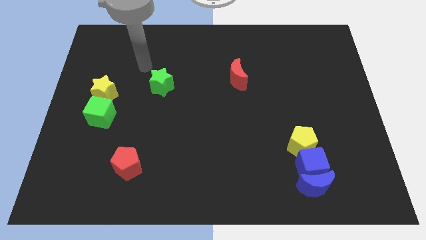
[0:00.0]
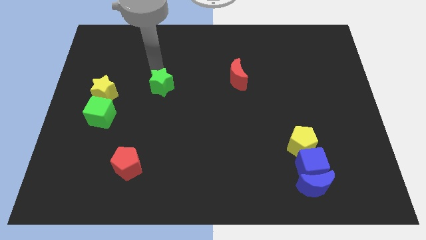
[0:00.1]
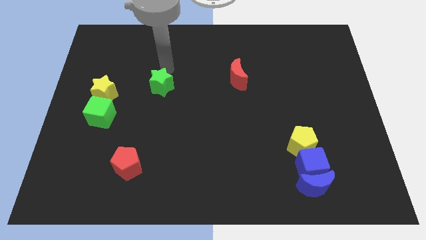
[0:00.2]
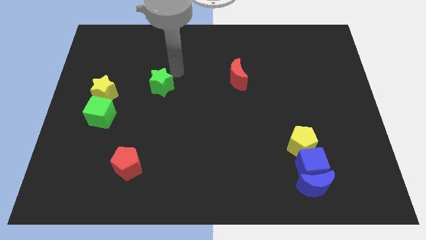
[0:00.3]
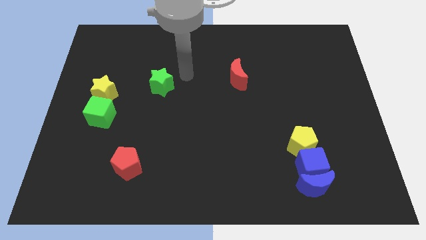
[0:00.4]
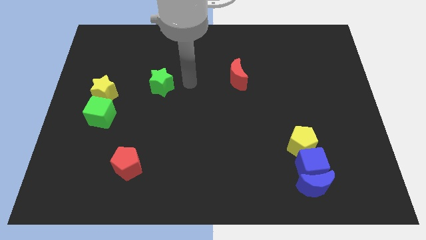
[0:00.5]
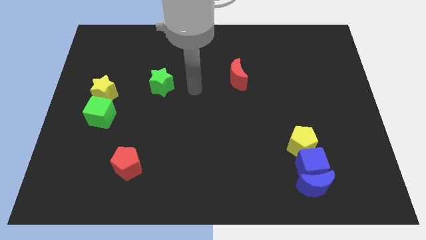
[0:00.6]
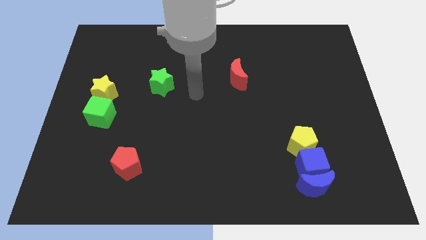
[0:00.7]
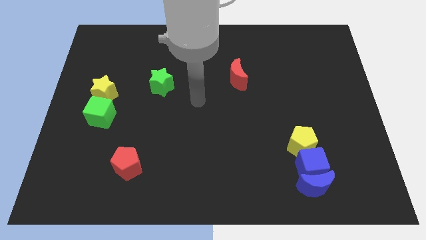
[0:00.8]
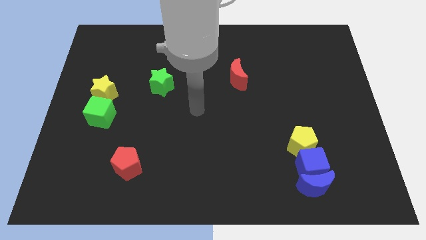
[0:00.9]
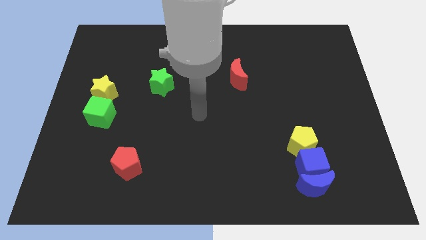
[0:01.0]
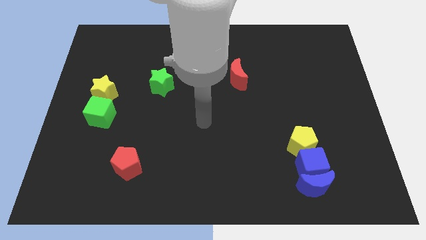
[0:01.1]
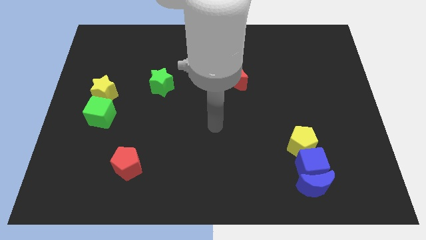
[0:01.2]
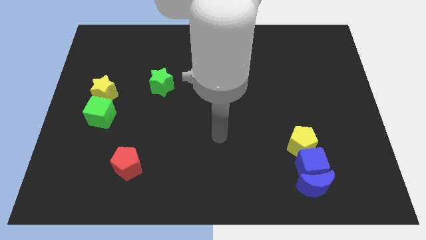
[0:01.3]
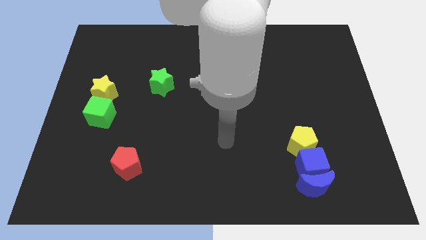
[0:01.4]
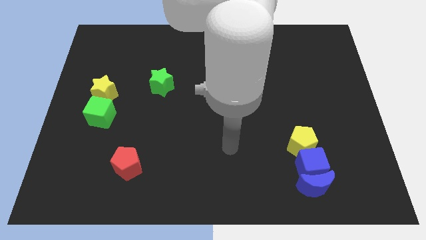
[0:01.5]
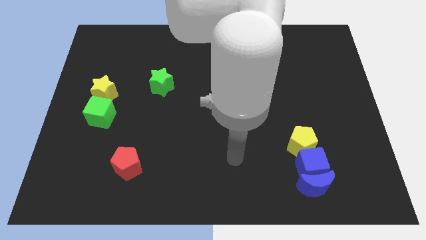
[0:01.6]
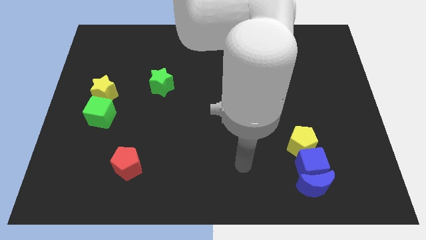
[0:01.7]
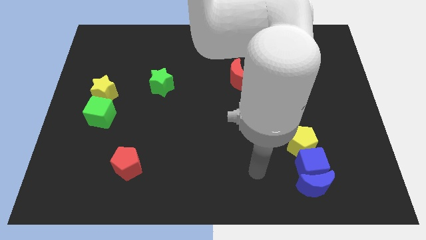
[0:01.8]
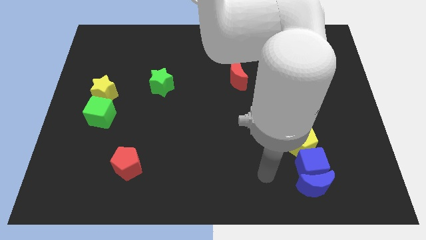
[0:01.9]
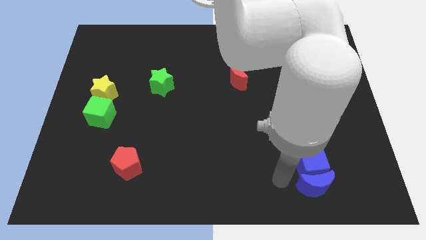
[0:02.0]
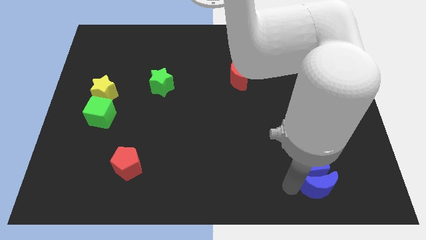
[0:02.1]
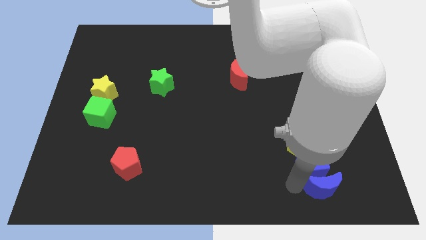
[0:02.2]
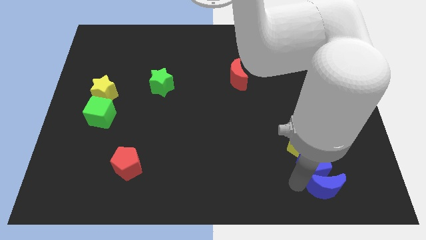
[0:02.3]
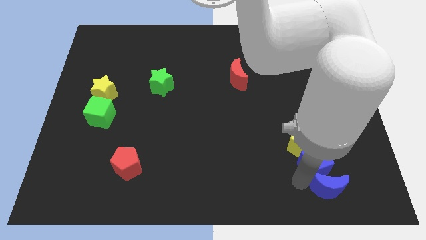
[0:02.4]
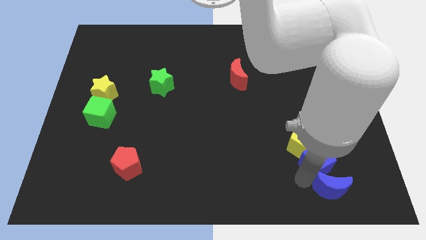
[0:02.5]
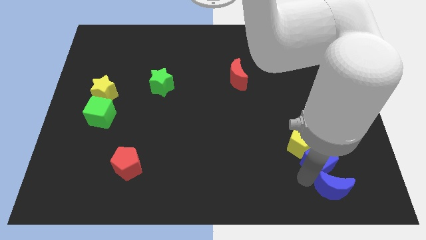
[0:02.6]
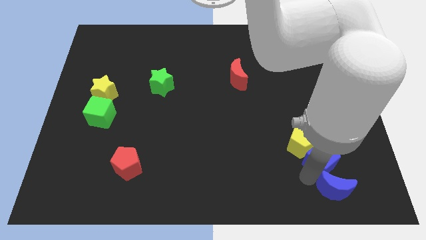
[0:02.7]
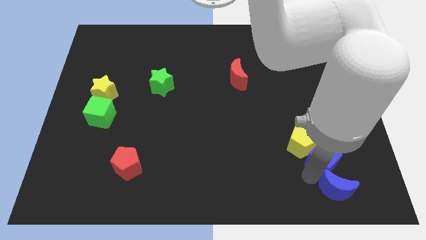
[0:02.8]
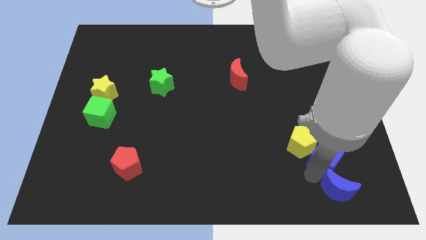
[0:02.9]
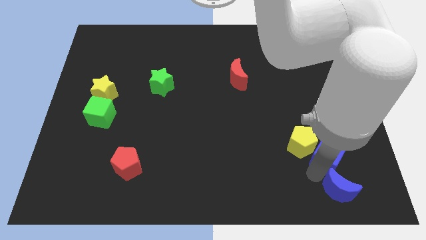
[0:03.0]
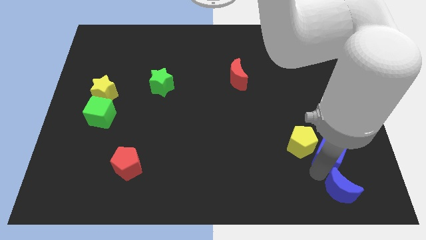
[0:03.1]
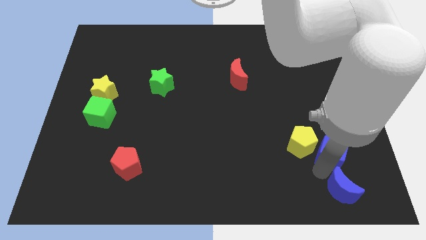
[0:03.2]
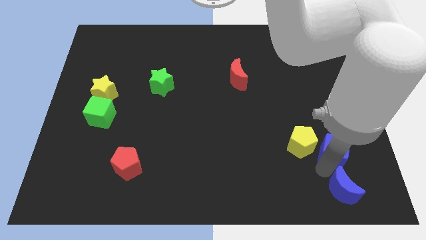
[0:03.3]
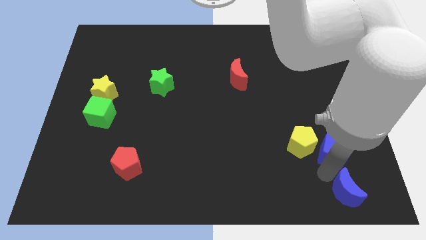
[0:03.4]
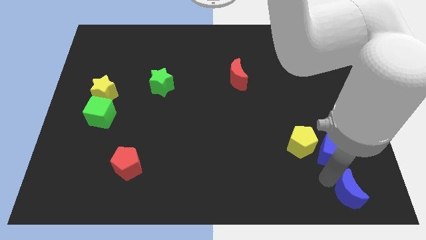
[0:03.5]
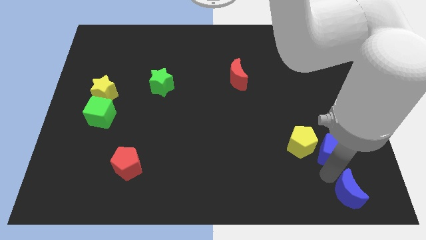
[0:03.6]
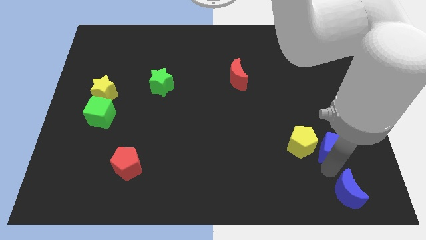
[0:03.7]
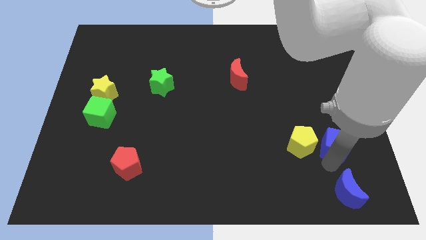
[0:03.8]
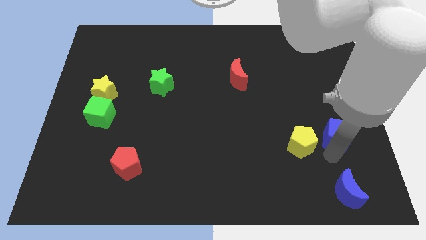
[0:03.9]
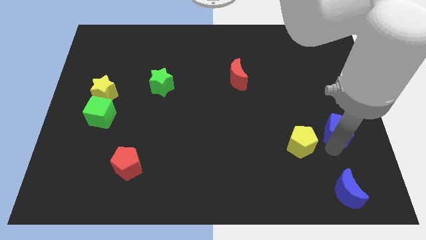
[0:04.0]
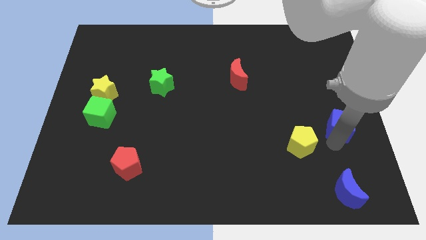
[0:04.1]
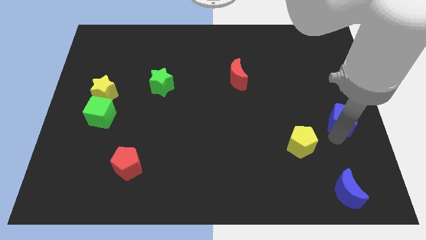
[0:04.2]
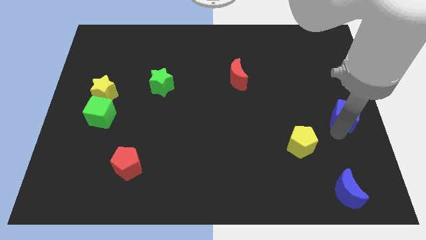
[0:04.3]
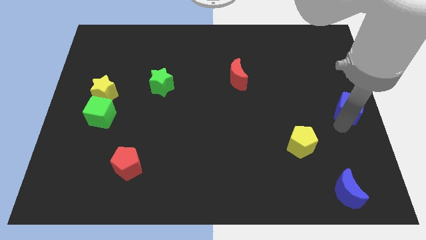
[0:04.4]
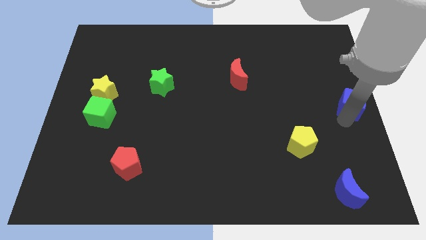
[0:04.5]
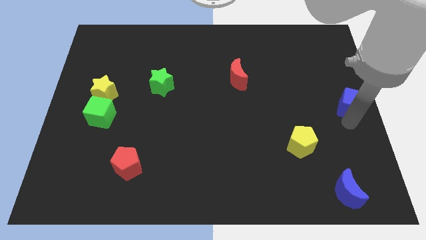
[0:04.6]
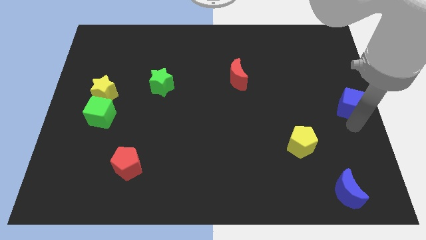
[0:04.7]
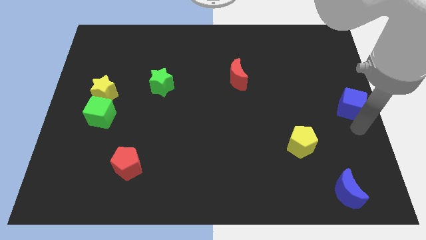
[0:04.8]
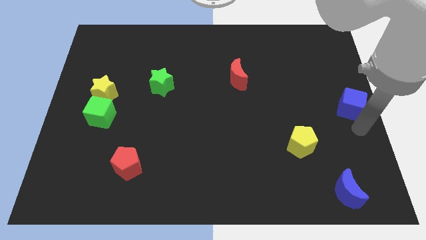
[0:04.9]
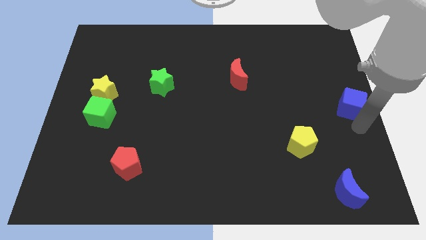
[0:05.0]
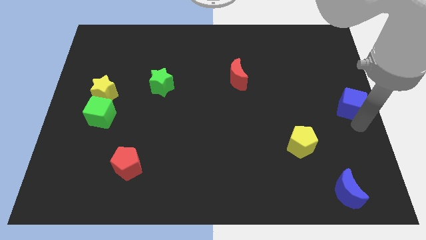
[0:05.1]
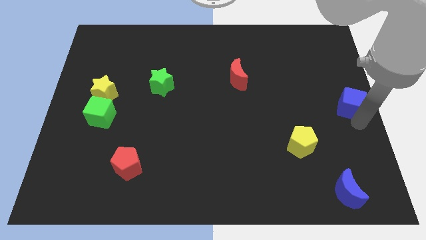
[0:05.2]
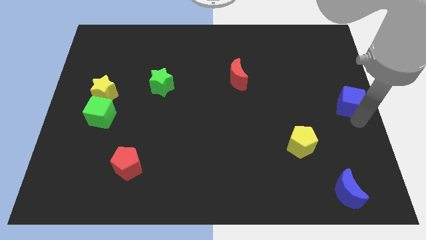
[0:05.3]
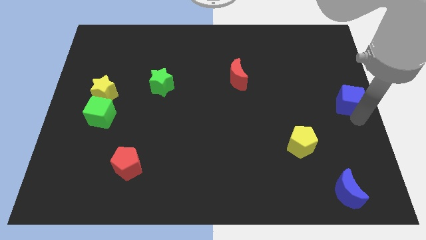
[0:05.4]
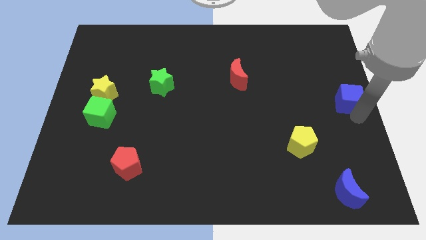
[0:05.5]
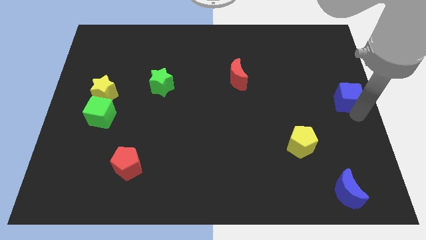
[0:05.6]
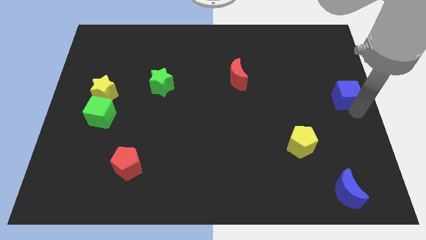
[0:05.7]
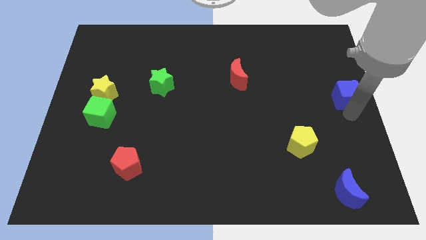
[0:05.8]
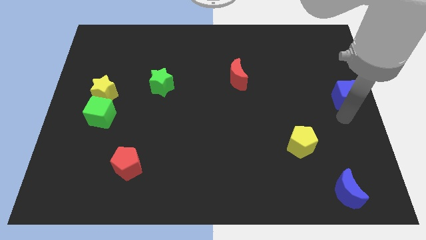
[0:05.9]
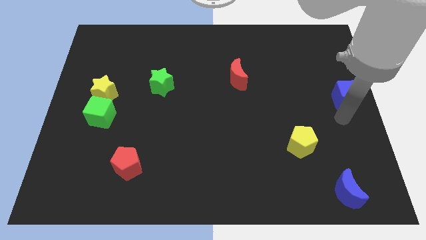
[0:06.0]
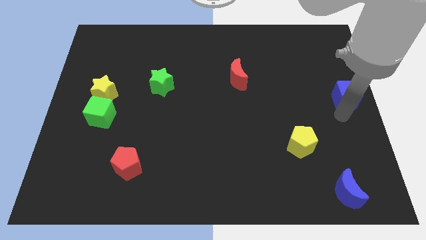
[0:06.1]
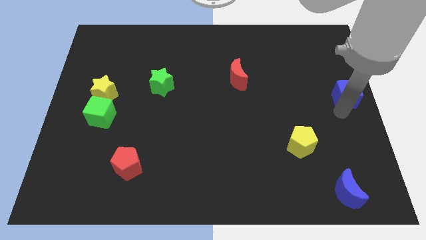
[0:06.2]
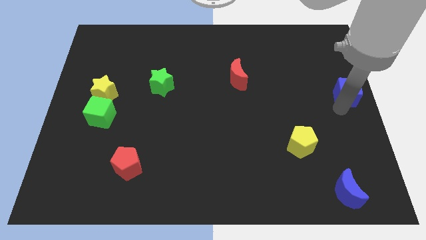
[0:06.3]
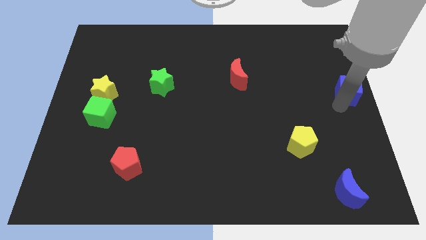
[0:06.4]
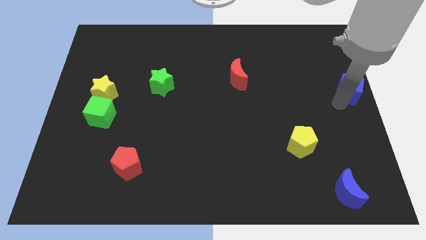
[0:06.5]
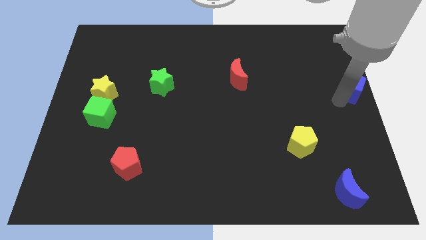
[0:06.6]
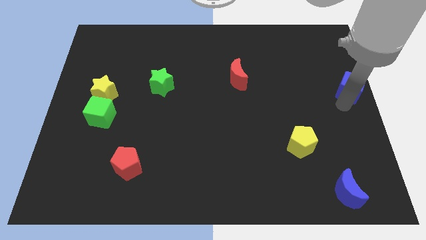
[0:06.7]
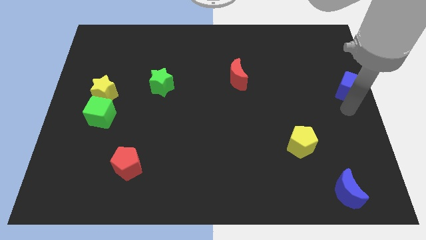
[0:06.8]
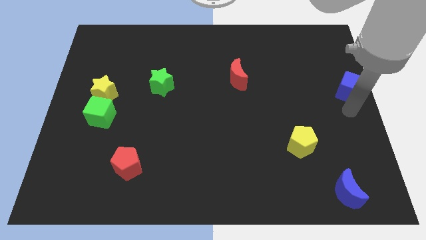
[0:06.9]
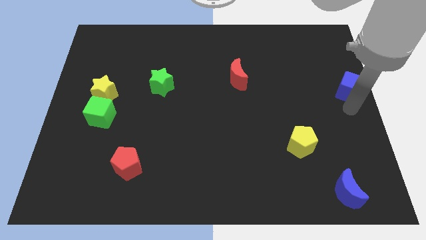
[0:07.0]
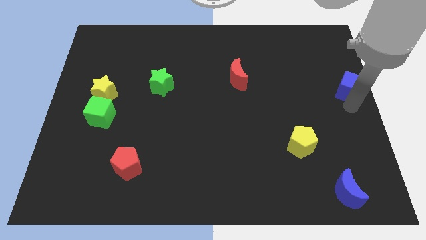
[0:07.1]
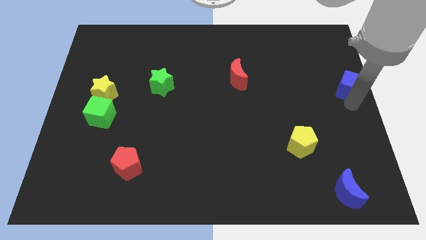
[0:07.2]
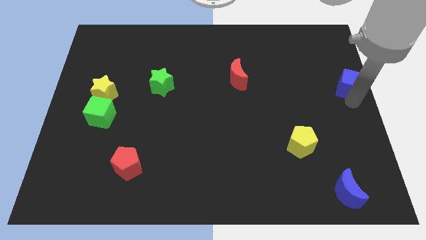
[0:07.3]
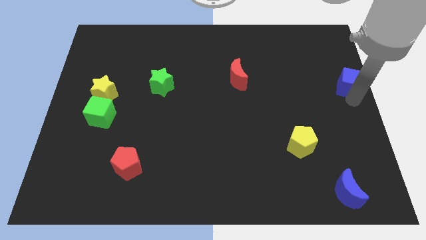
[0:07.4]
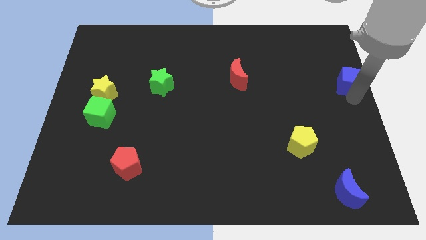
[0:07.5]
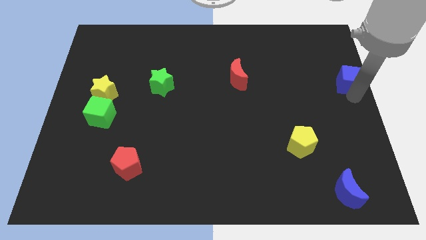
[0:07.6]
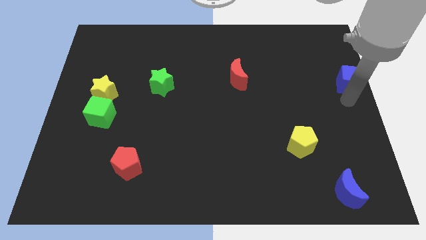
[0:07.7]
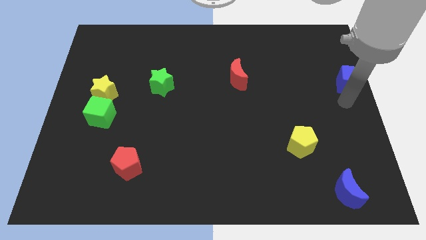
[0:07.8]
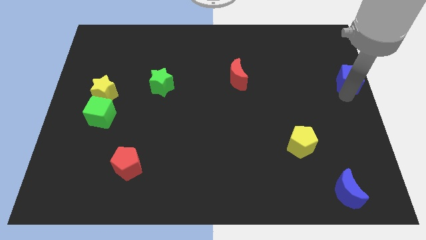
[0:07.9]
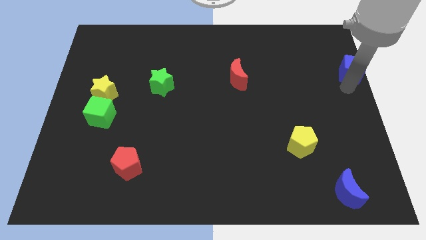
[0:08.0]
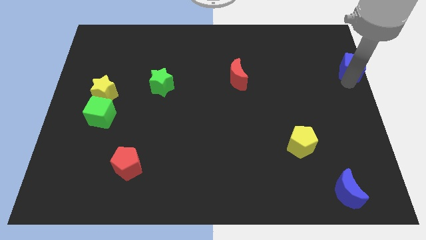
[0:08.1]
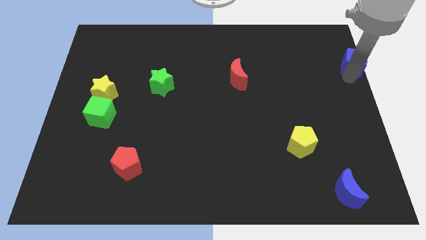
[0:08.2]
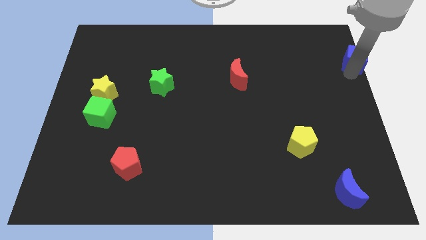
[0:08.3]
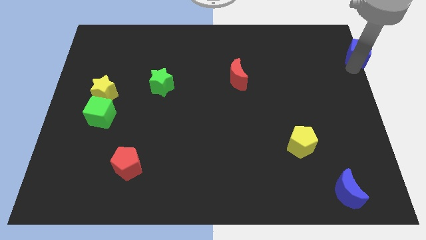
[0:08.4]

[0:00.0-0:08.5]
put the blue cube to the top right
